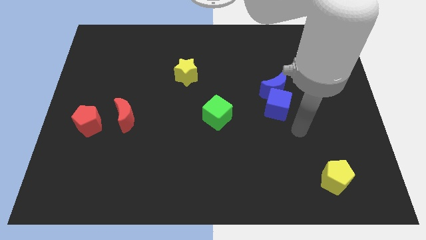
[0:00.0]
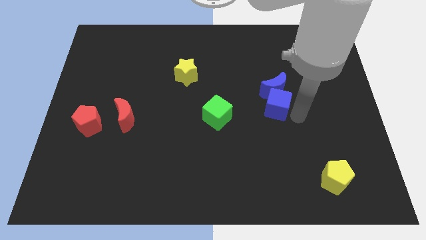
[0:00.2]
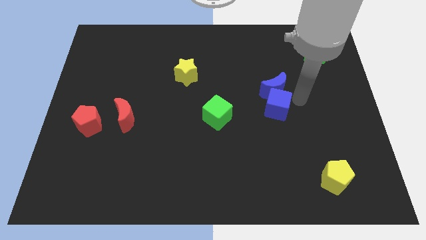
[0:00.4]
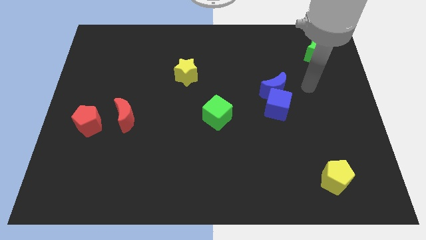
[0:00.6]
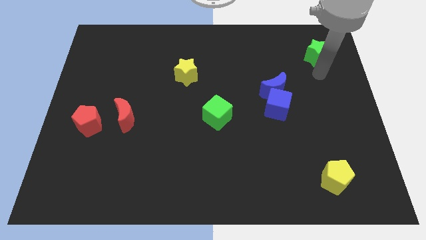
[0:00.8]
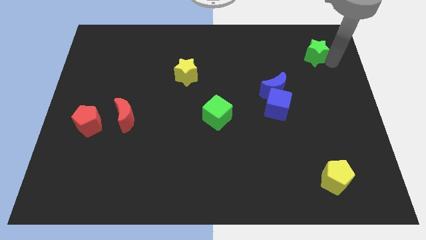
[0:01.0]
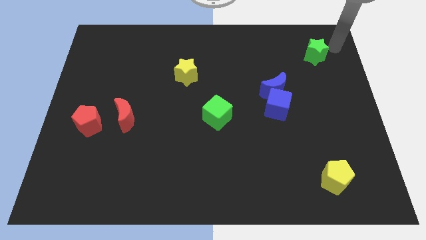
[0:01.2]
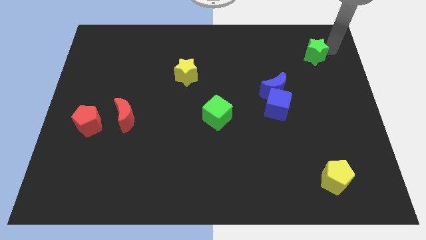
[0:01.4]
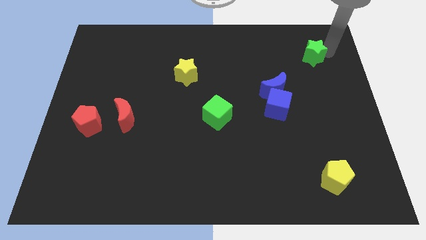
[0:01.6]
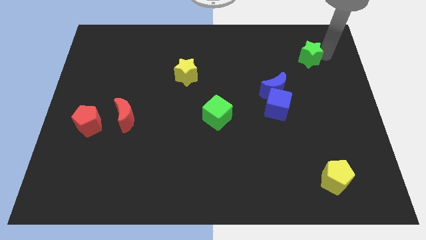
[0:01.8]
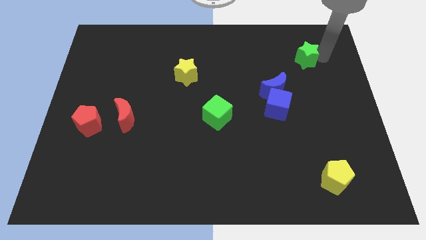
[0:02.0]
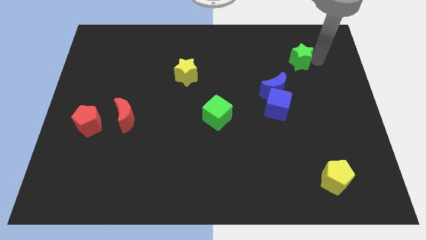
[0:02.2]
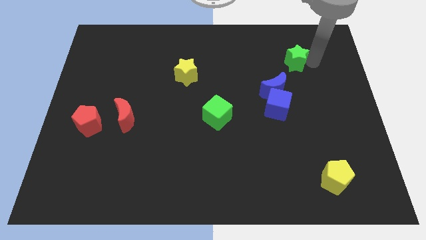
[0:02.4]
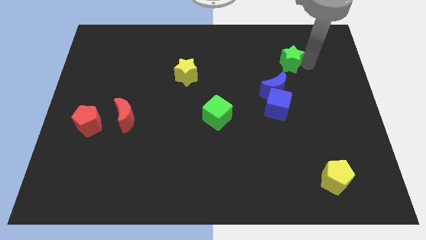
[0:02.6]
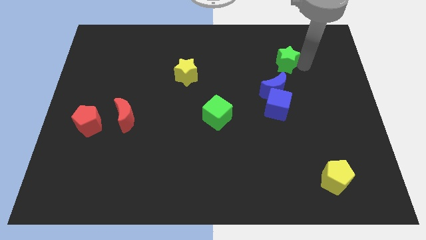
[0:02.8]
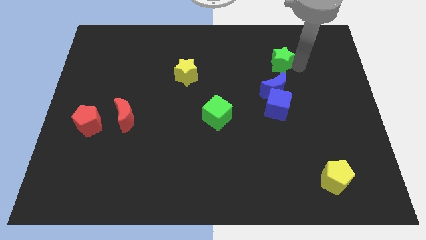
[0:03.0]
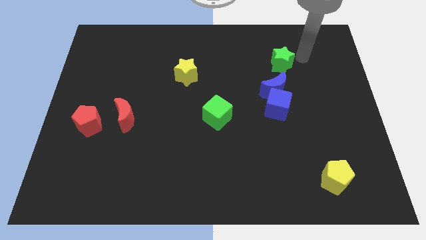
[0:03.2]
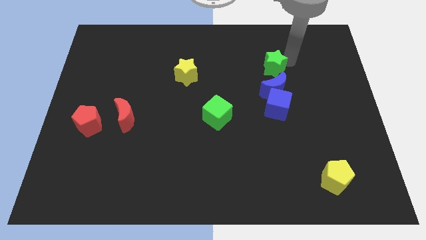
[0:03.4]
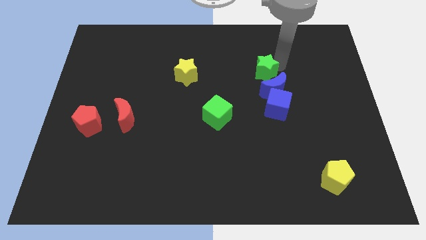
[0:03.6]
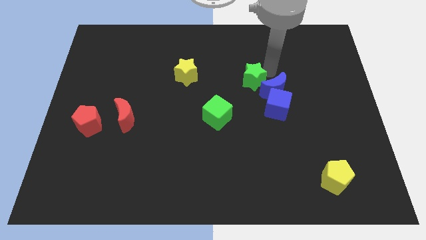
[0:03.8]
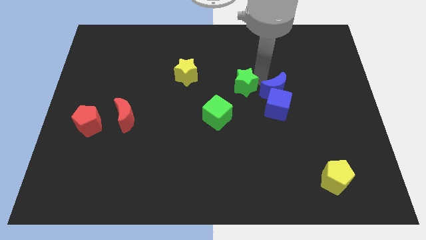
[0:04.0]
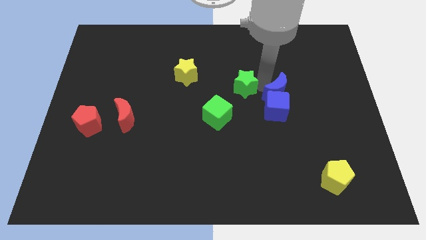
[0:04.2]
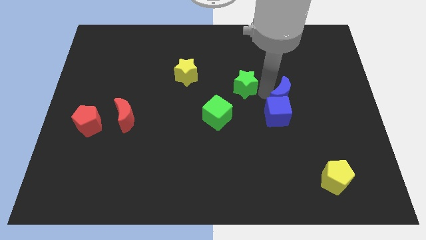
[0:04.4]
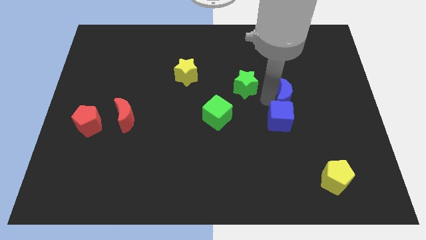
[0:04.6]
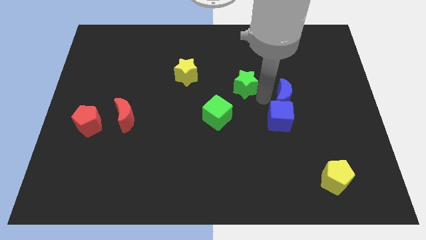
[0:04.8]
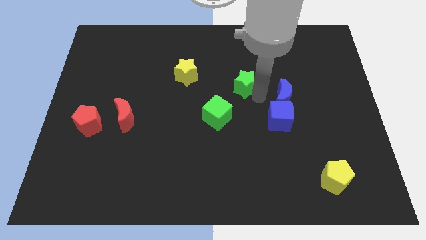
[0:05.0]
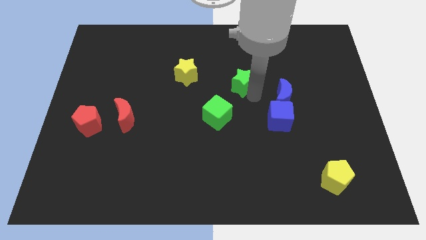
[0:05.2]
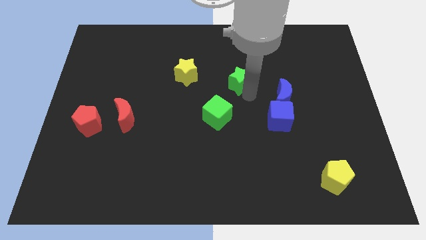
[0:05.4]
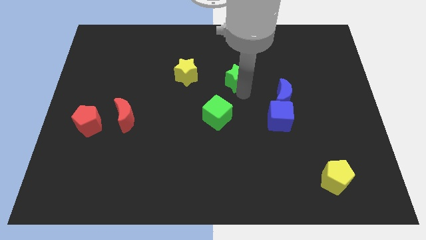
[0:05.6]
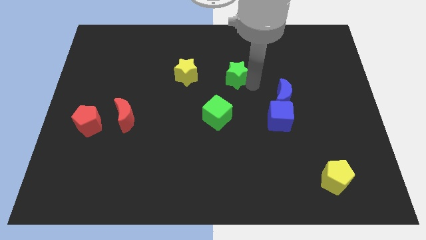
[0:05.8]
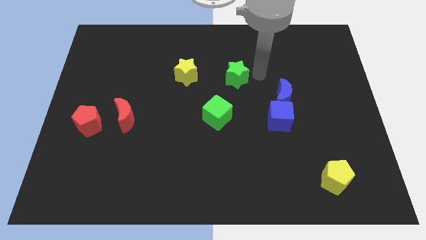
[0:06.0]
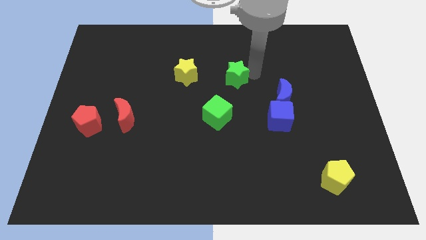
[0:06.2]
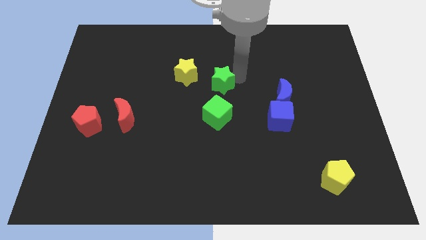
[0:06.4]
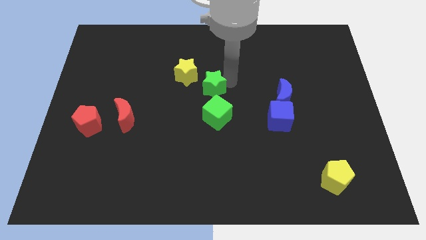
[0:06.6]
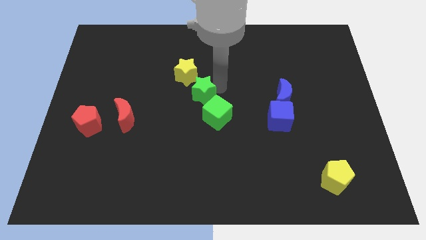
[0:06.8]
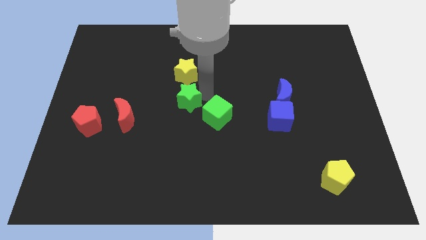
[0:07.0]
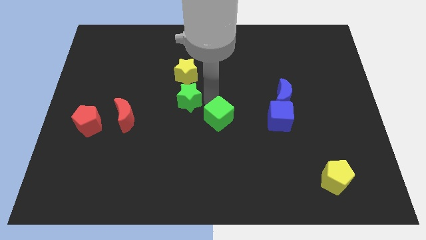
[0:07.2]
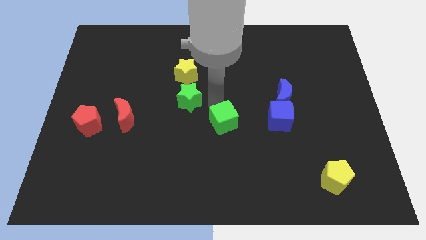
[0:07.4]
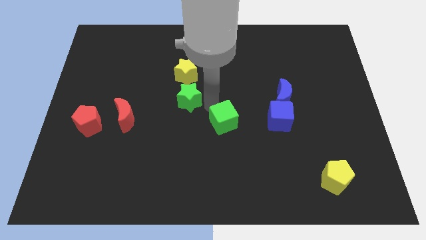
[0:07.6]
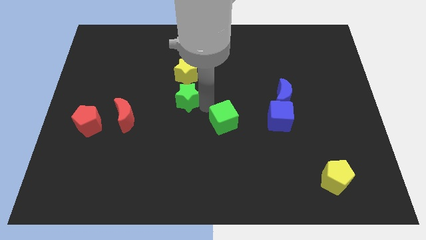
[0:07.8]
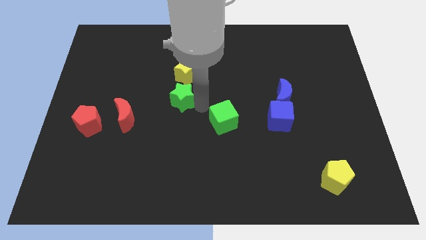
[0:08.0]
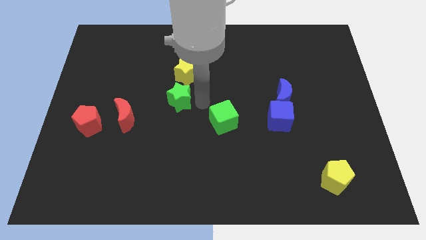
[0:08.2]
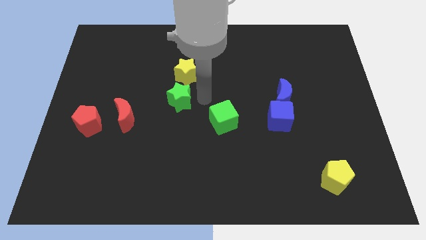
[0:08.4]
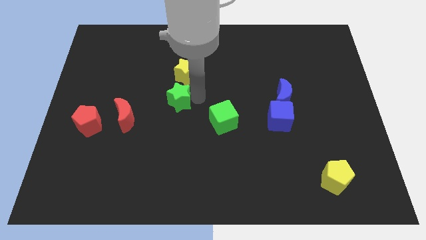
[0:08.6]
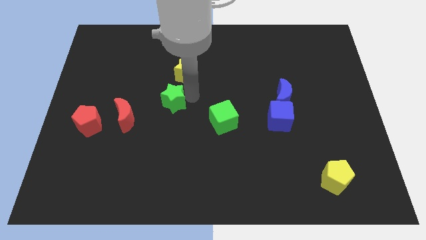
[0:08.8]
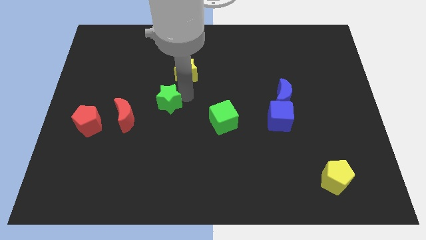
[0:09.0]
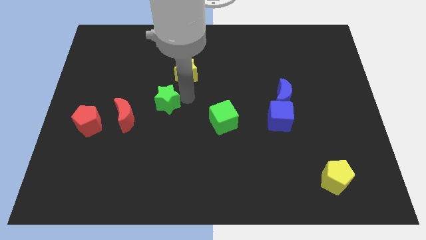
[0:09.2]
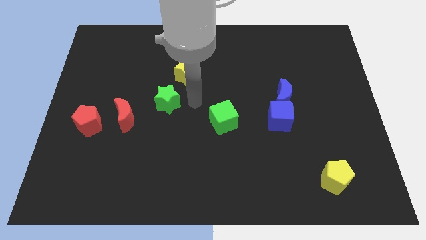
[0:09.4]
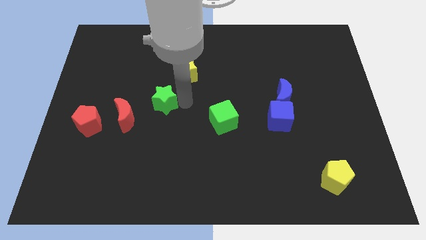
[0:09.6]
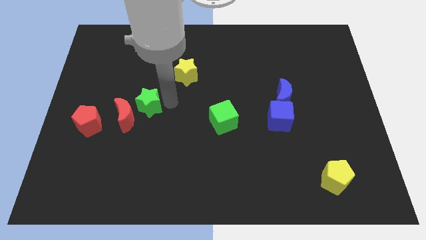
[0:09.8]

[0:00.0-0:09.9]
slide the green star to the red moon

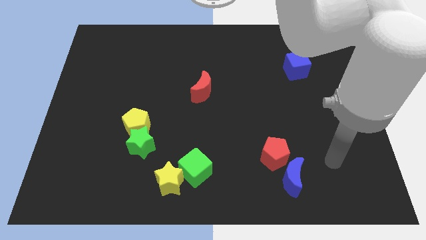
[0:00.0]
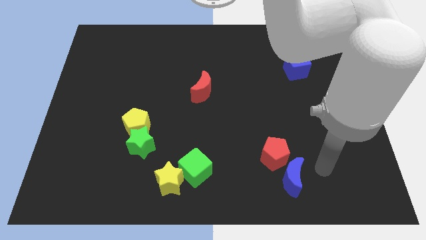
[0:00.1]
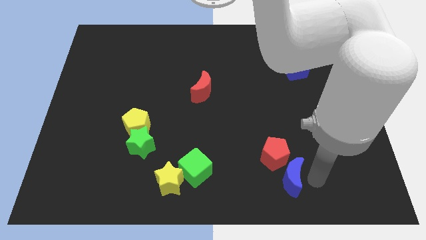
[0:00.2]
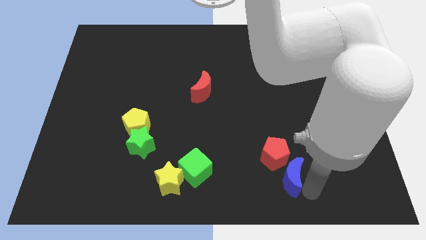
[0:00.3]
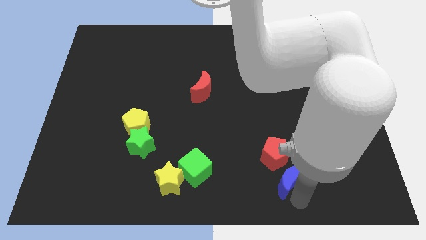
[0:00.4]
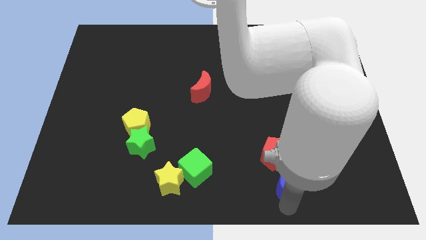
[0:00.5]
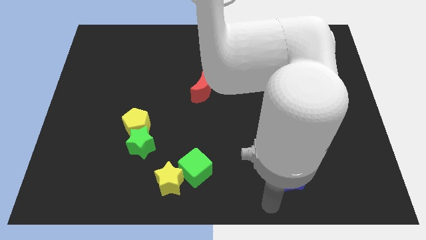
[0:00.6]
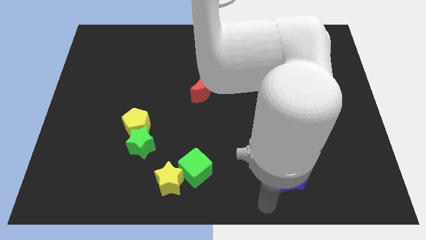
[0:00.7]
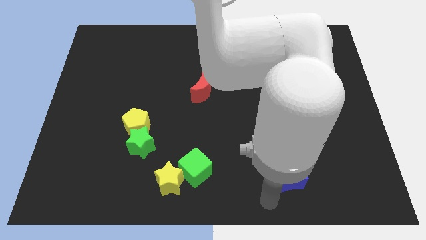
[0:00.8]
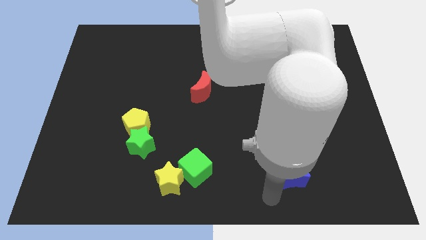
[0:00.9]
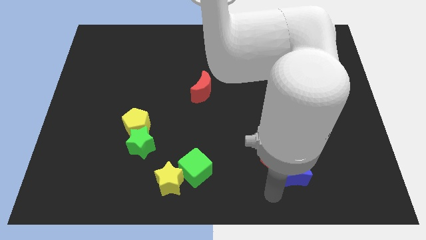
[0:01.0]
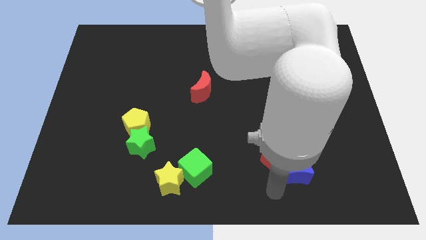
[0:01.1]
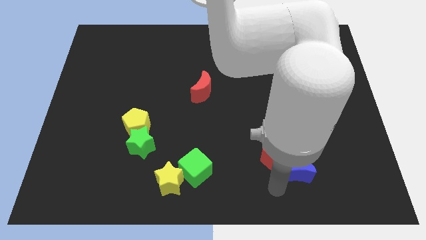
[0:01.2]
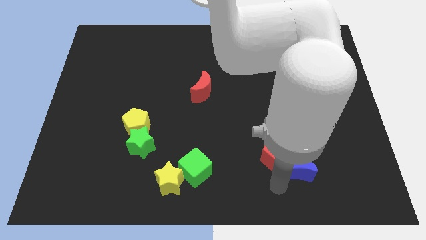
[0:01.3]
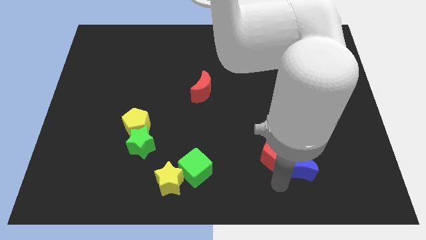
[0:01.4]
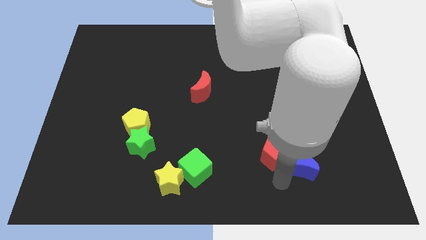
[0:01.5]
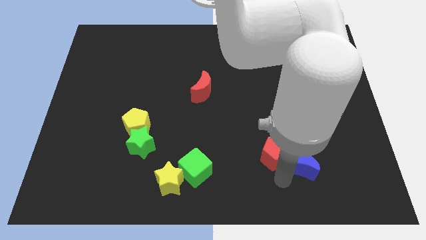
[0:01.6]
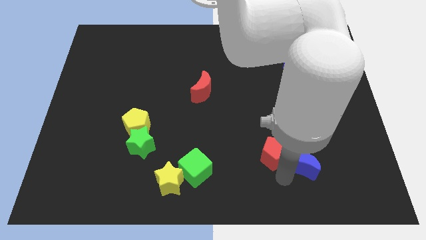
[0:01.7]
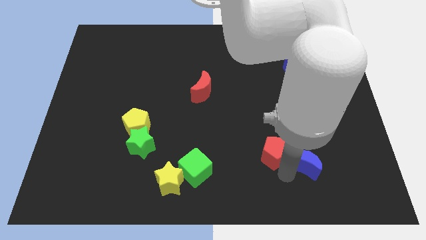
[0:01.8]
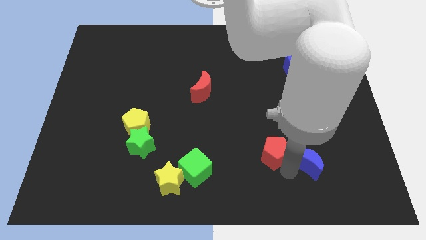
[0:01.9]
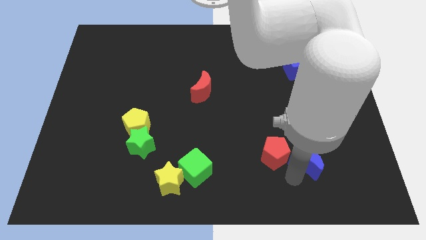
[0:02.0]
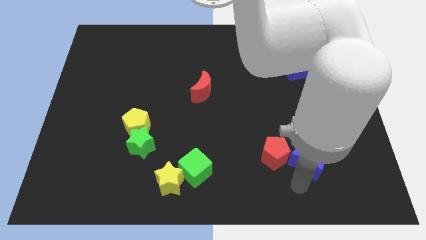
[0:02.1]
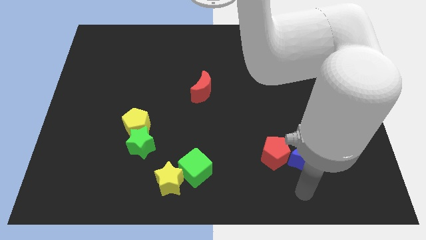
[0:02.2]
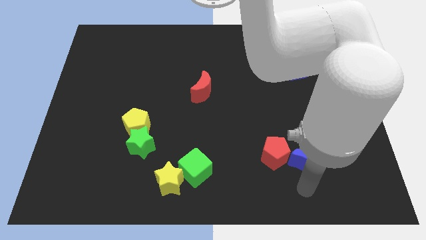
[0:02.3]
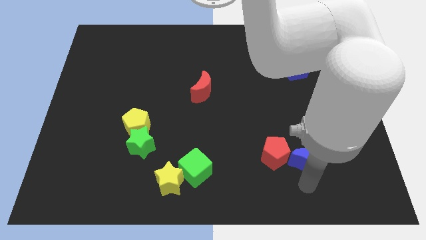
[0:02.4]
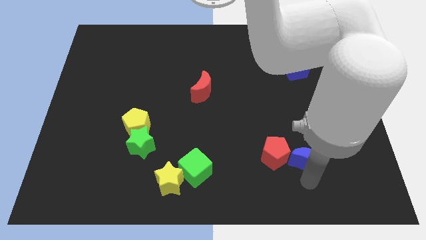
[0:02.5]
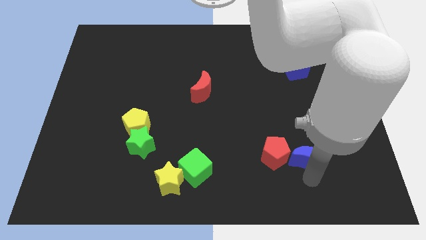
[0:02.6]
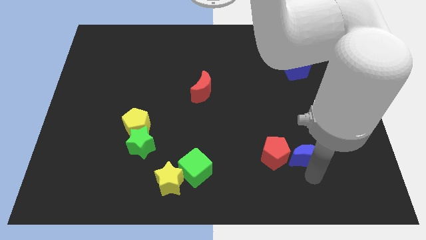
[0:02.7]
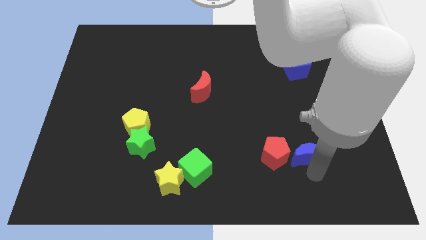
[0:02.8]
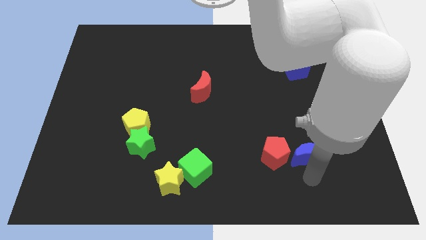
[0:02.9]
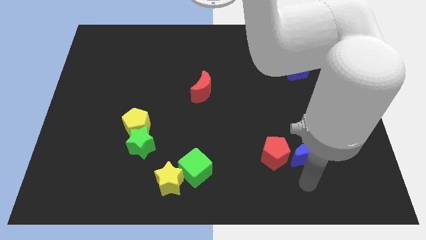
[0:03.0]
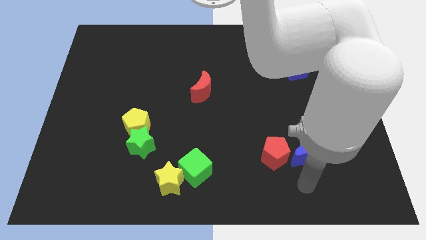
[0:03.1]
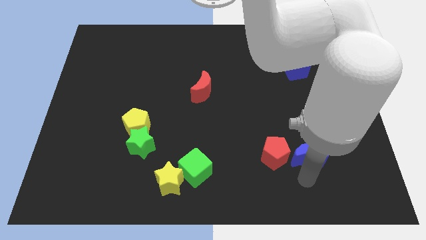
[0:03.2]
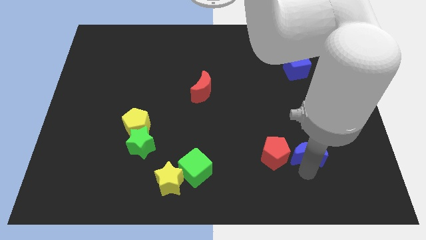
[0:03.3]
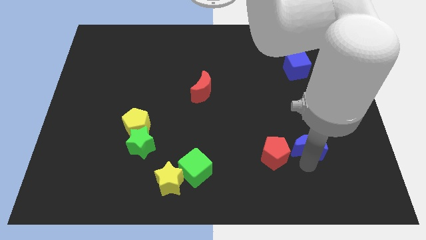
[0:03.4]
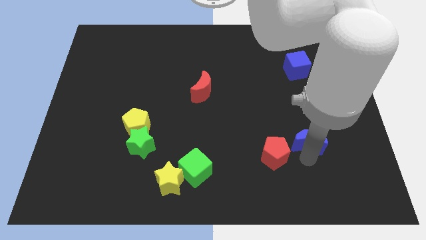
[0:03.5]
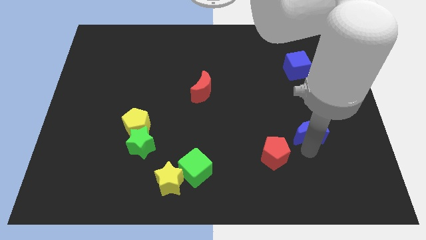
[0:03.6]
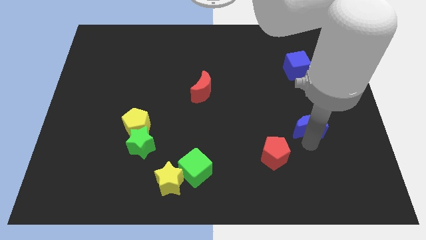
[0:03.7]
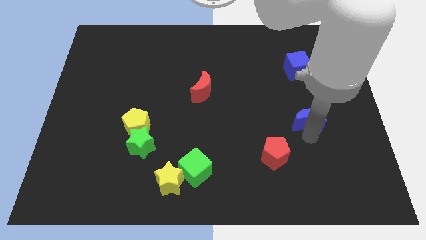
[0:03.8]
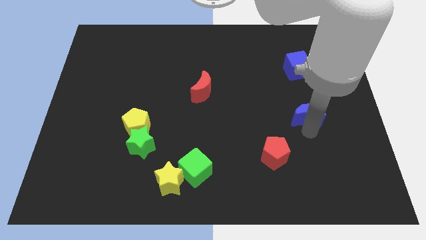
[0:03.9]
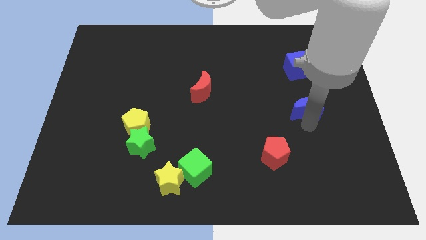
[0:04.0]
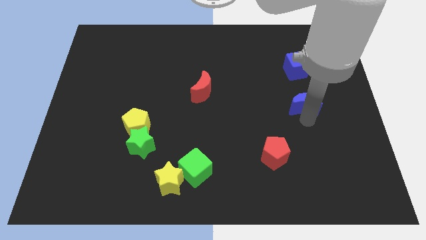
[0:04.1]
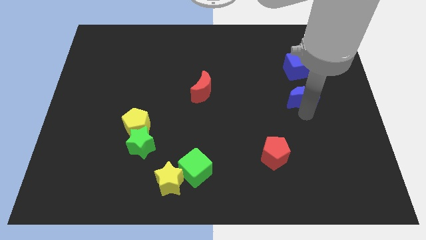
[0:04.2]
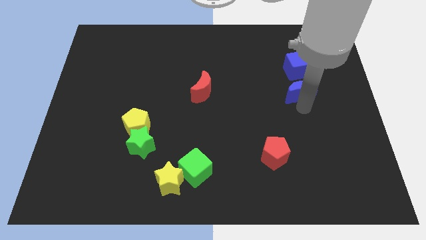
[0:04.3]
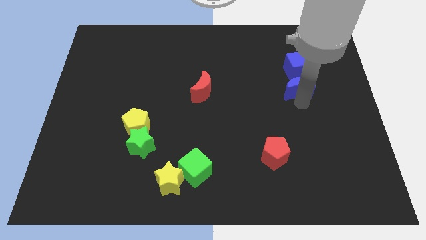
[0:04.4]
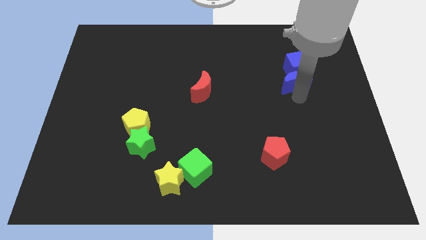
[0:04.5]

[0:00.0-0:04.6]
push the blue moon to the blue cube
